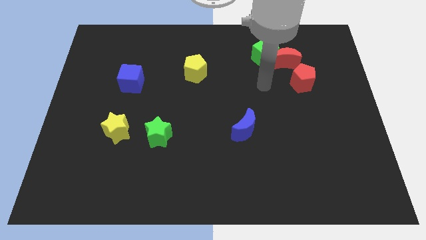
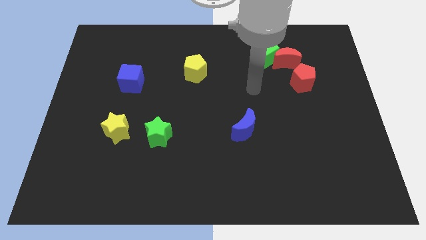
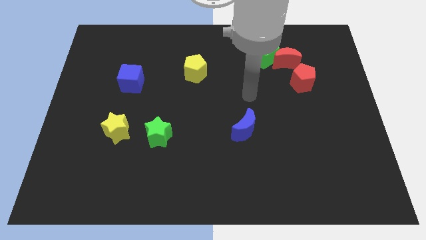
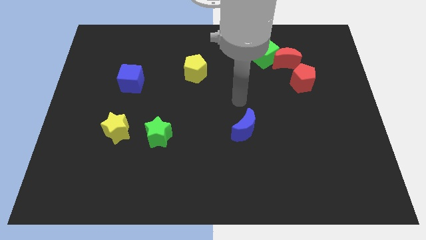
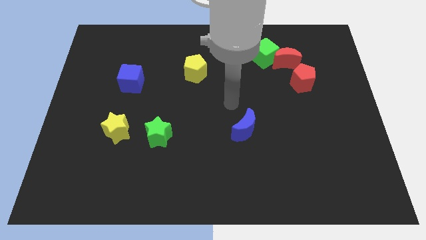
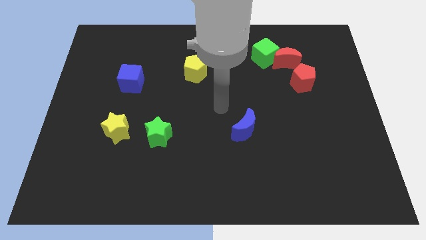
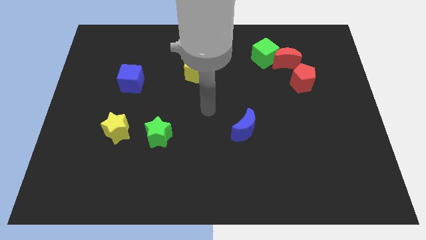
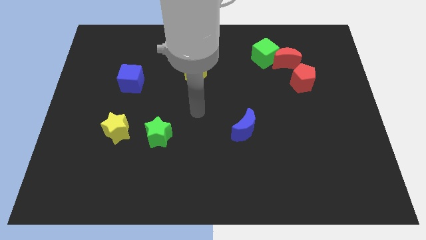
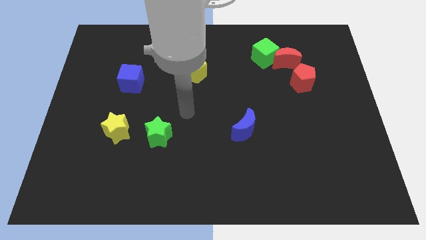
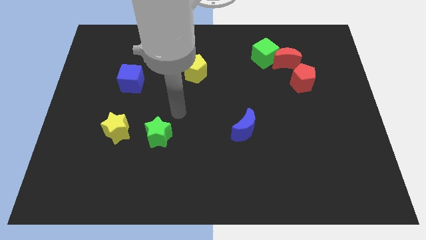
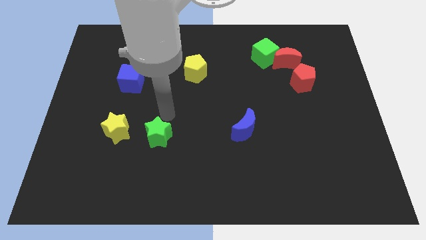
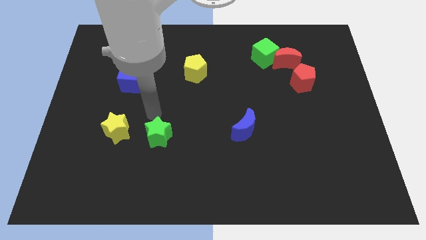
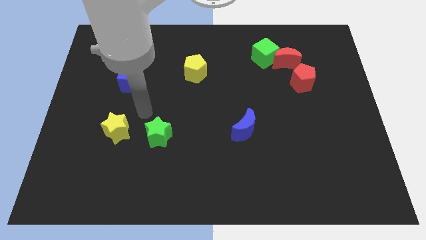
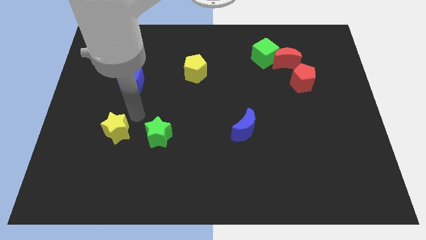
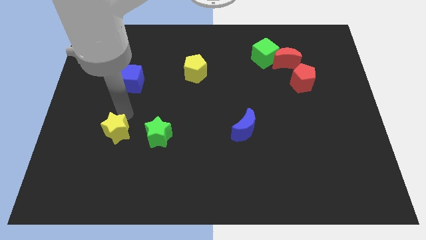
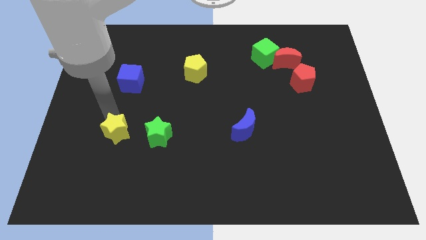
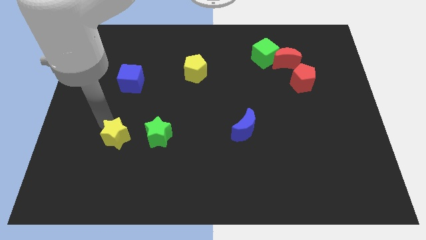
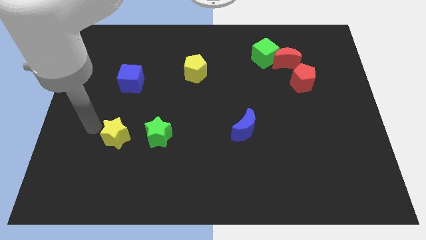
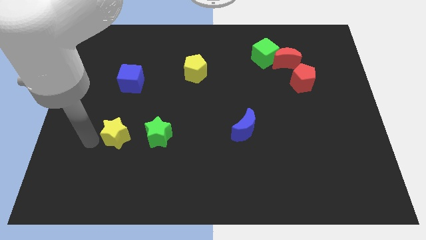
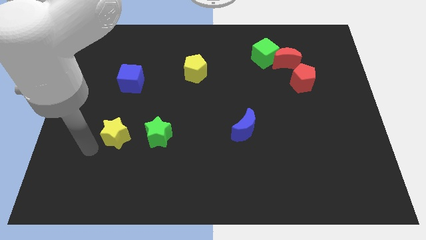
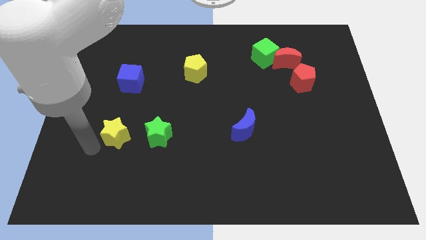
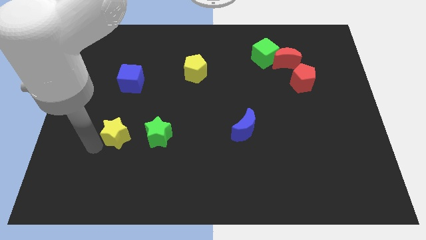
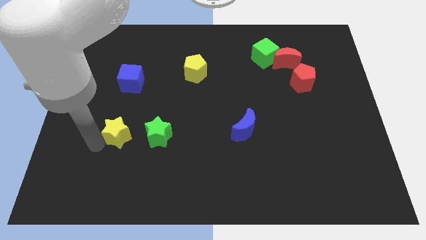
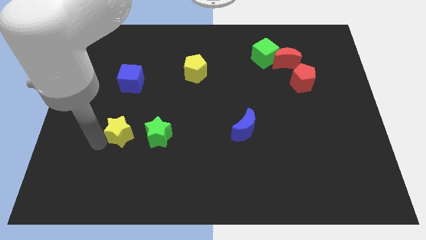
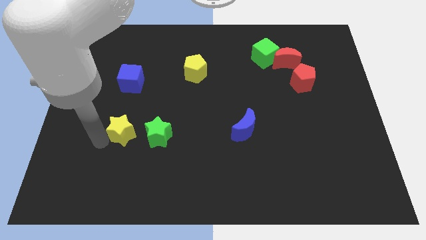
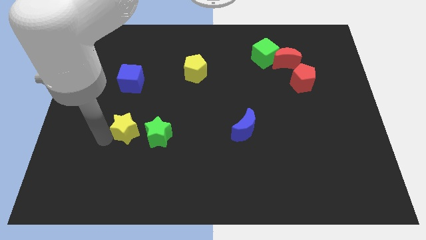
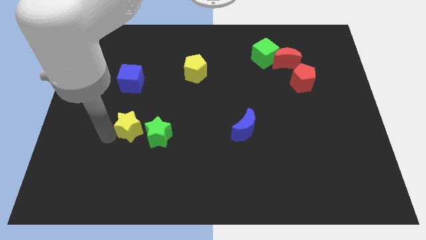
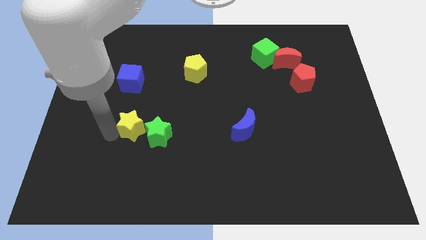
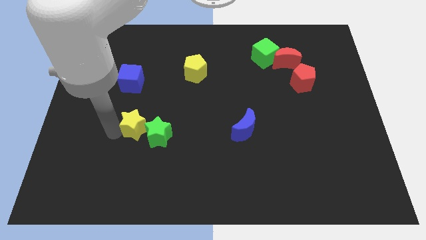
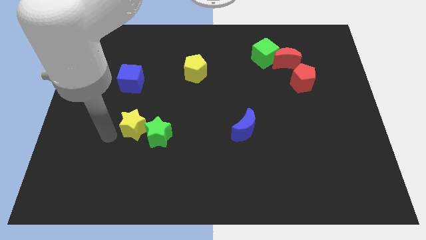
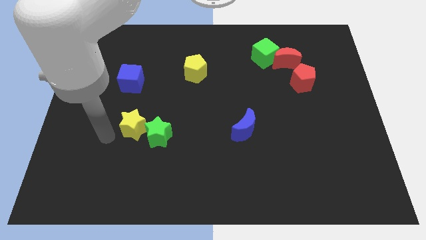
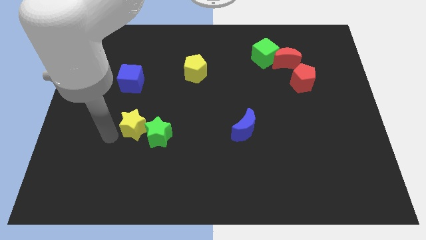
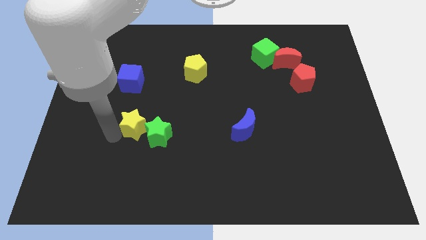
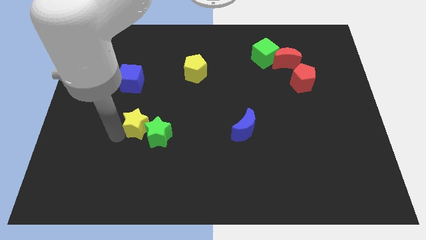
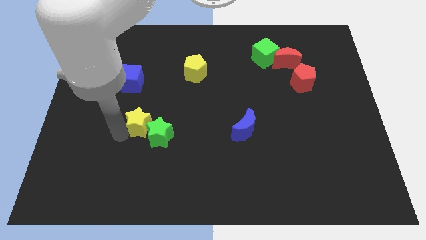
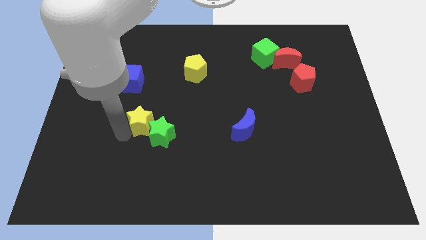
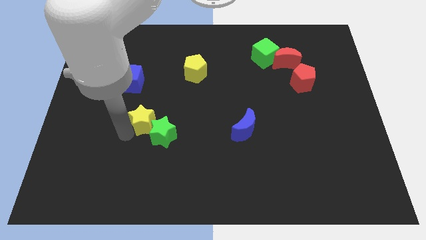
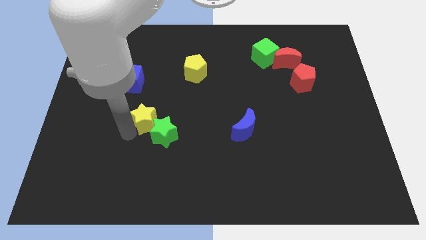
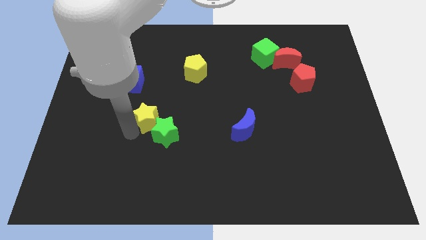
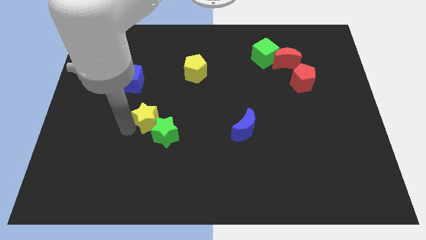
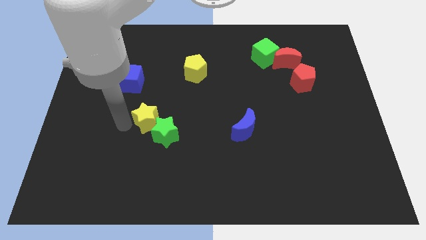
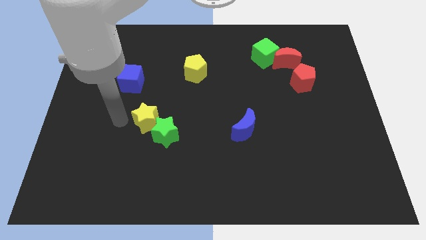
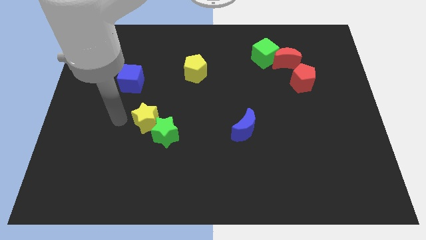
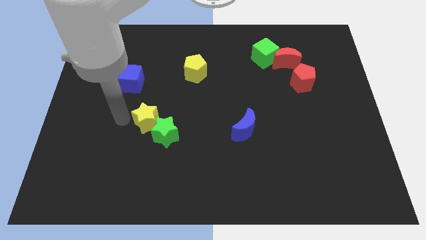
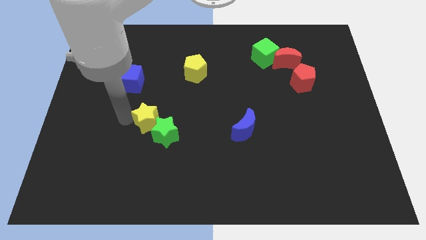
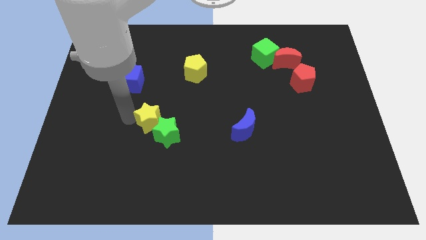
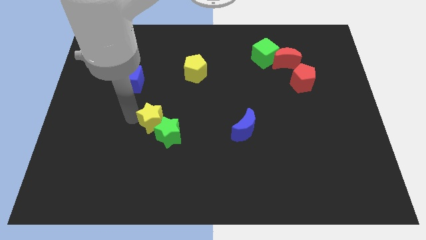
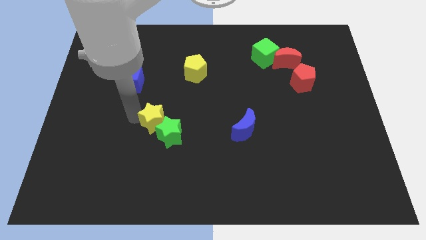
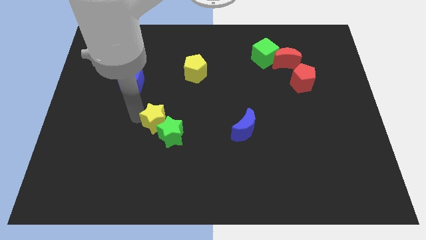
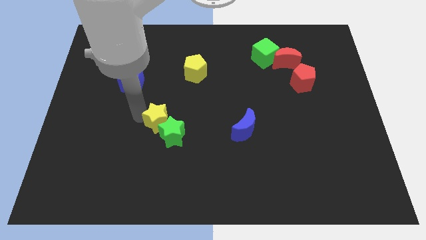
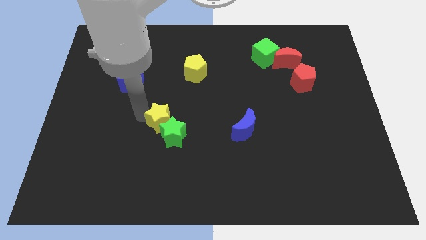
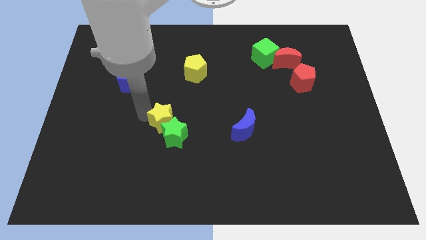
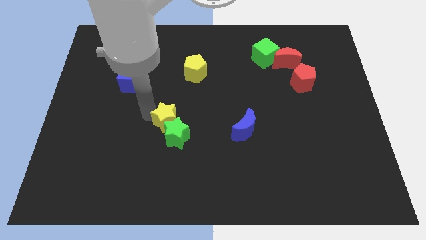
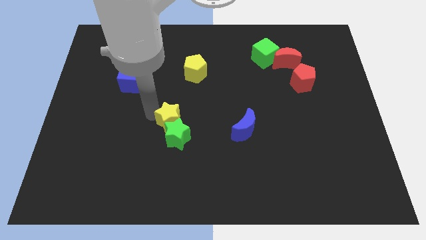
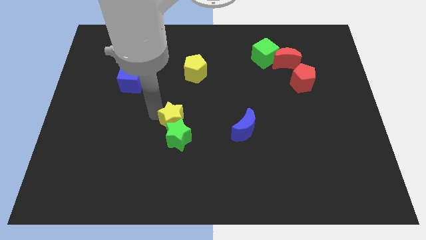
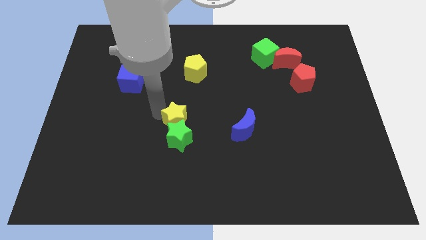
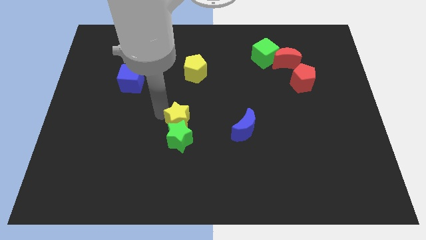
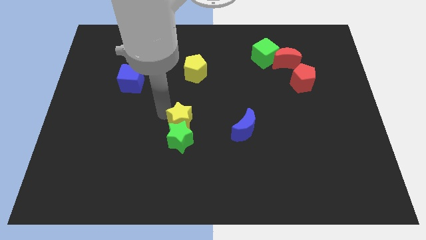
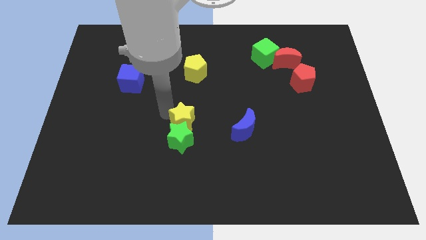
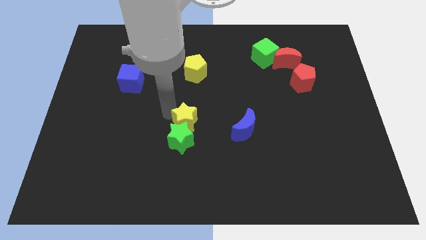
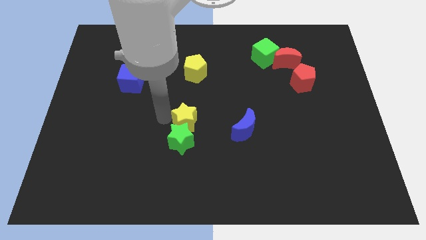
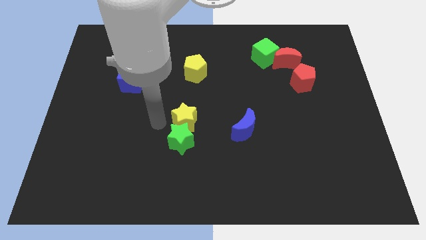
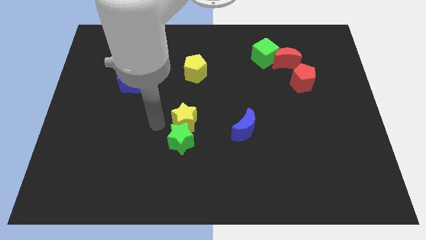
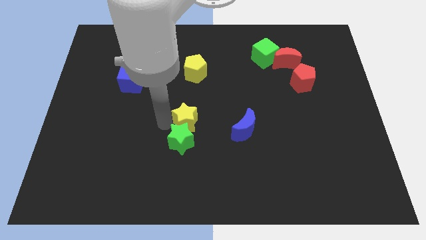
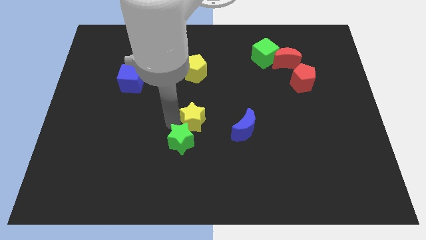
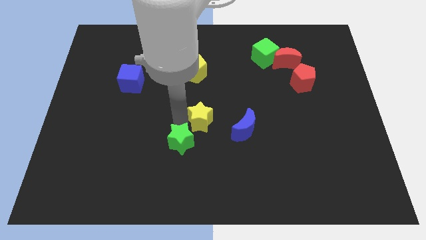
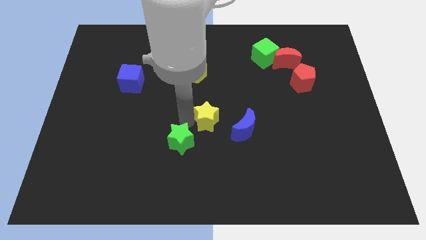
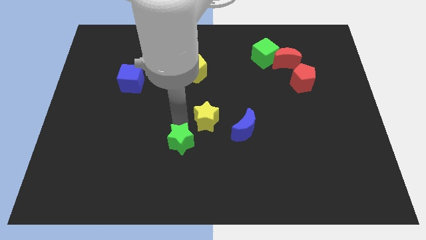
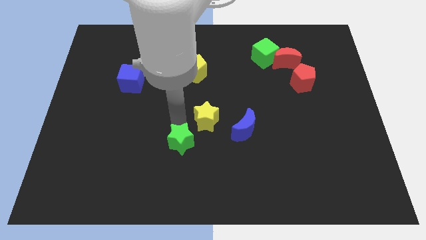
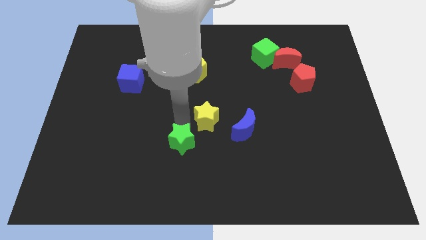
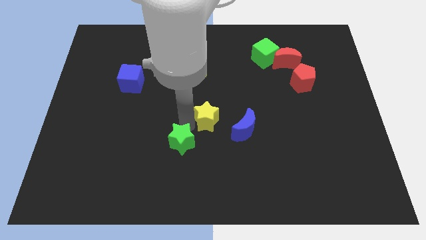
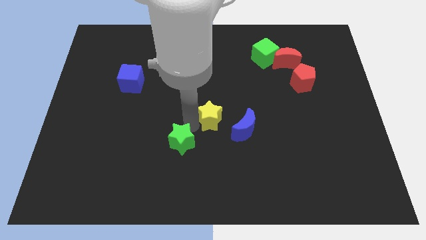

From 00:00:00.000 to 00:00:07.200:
move the yellow star to the right

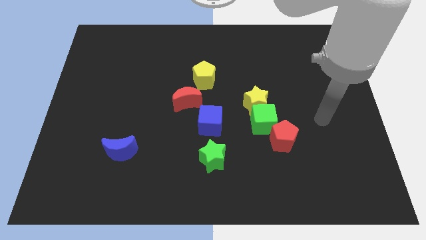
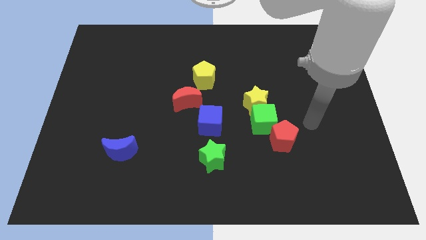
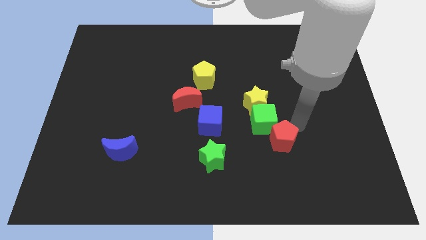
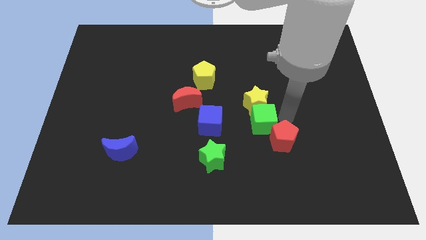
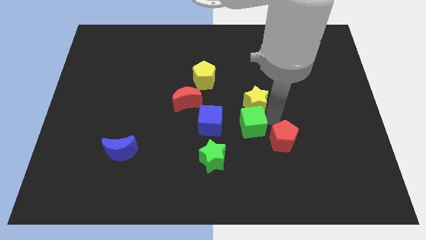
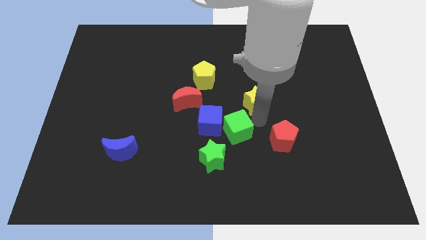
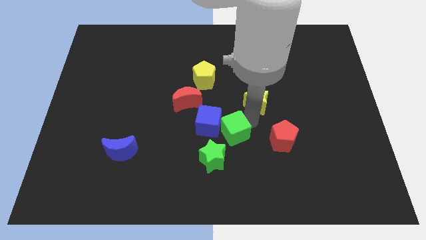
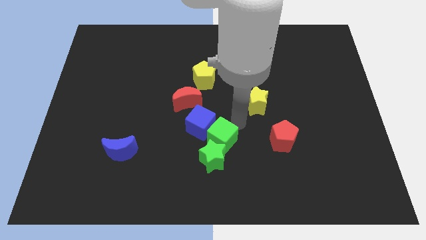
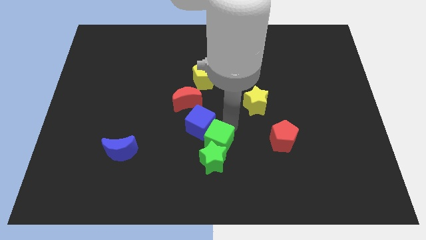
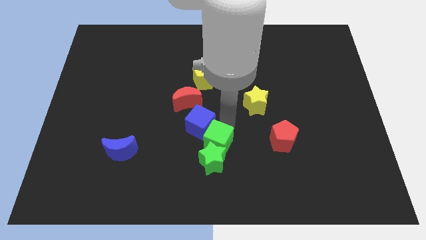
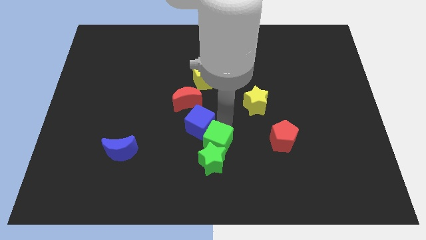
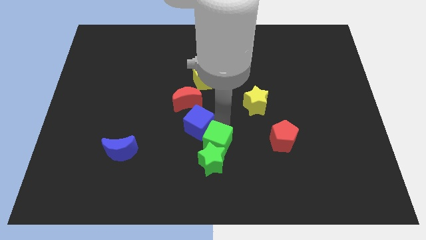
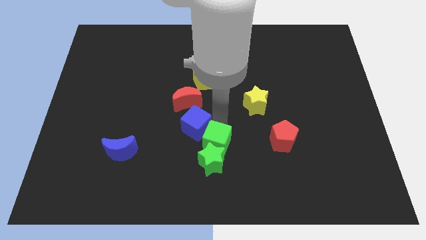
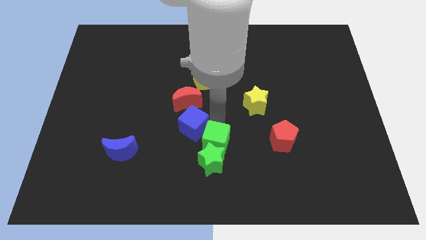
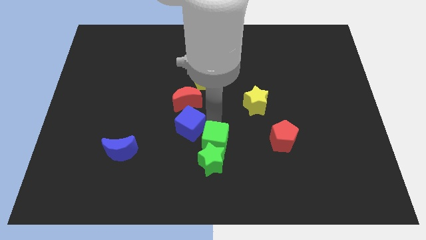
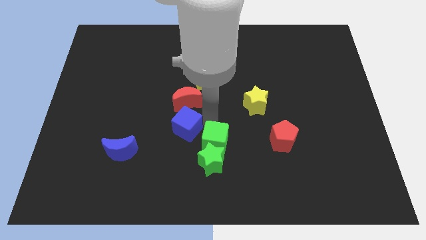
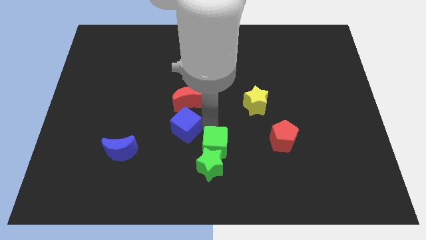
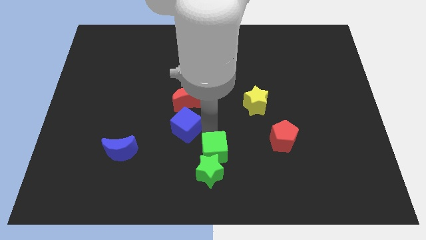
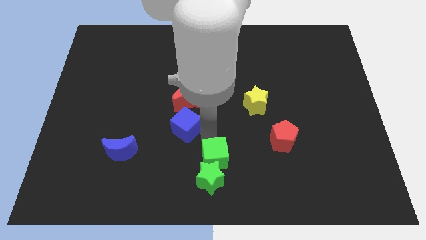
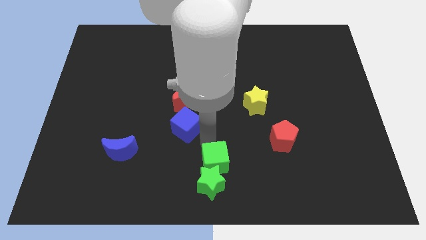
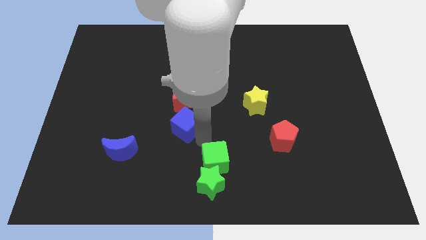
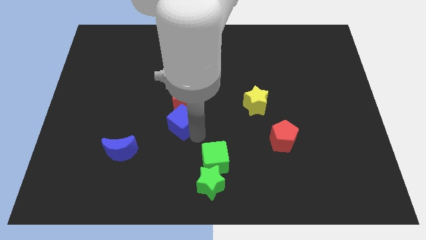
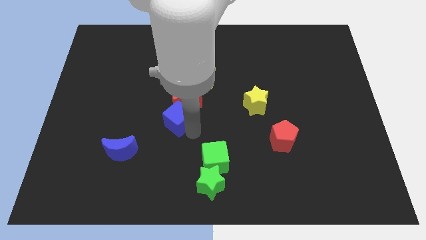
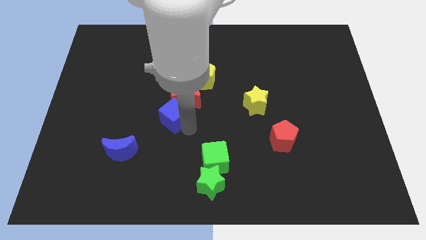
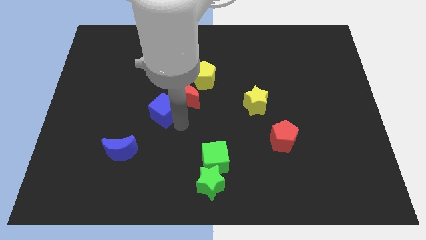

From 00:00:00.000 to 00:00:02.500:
slightly slide the blue cube diagonally up and left
